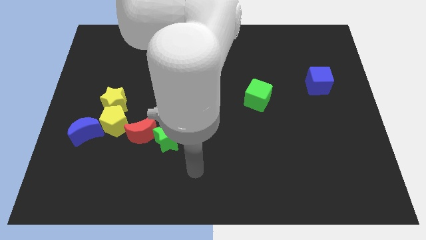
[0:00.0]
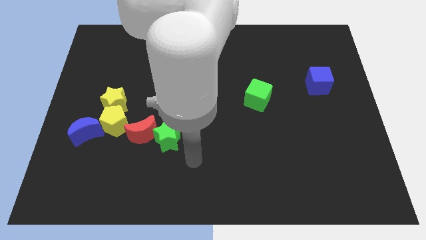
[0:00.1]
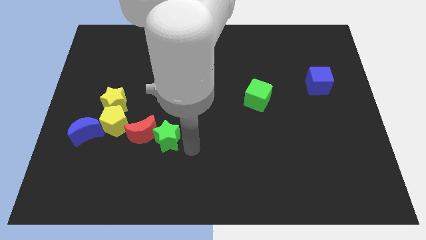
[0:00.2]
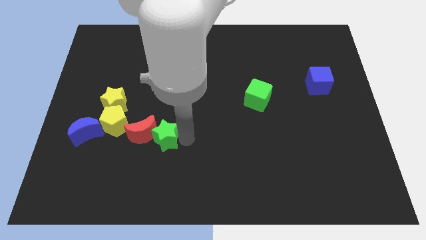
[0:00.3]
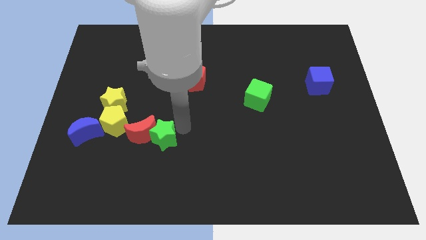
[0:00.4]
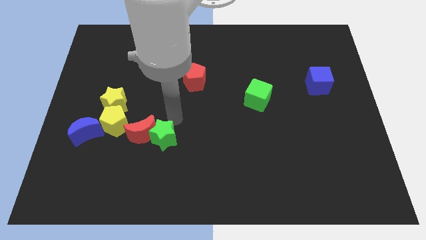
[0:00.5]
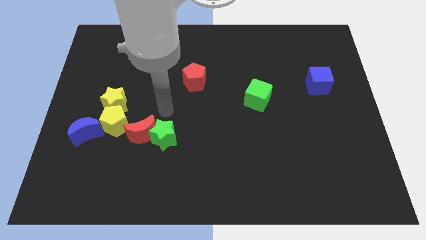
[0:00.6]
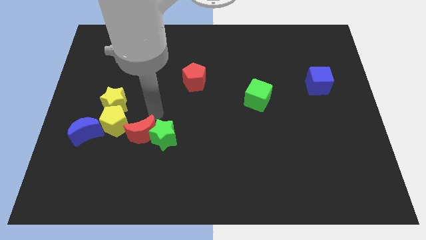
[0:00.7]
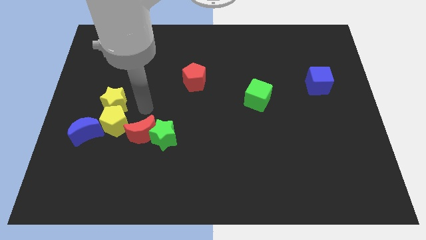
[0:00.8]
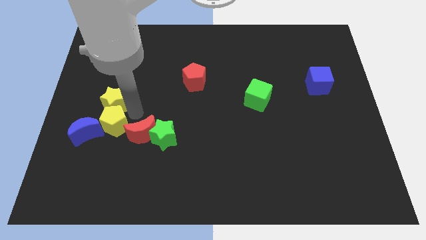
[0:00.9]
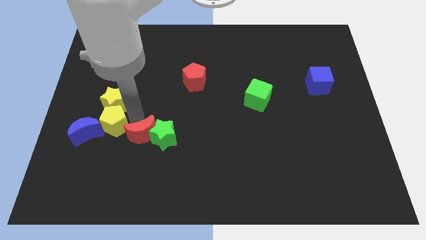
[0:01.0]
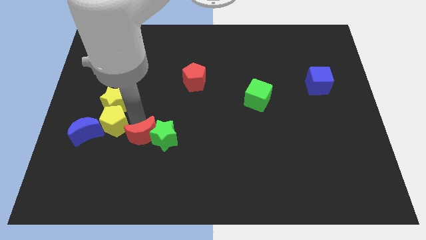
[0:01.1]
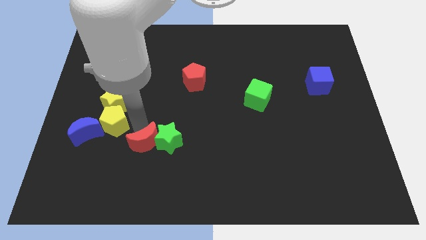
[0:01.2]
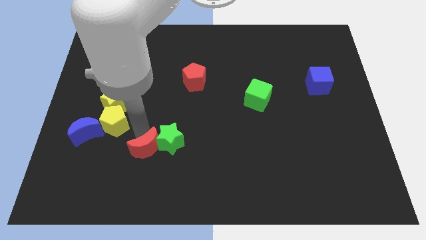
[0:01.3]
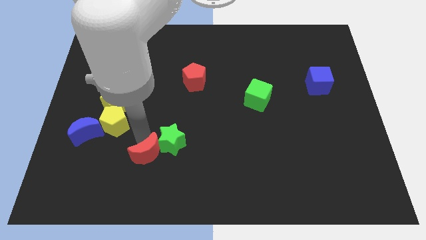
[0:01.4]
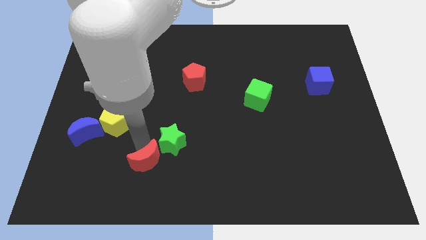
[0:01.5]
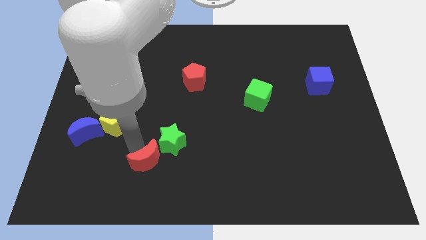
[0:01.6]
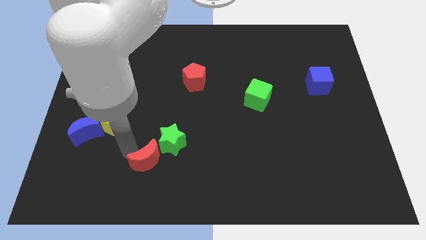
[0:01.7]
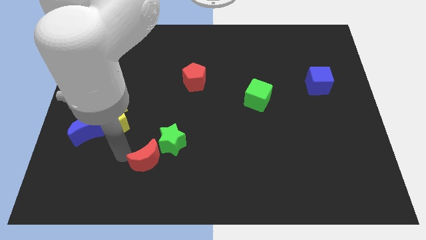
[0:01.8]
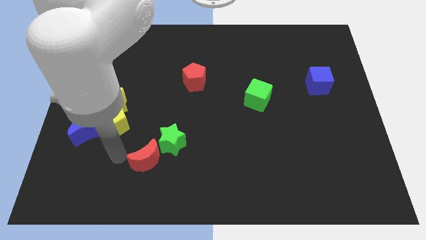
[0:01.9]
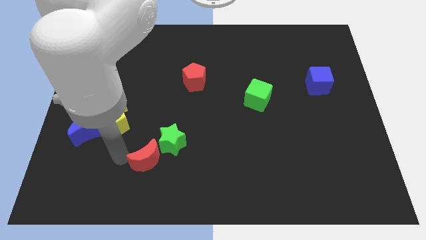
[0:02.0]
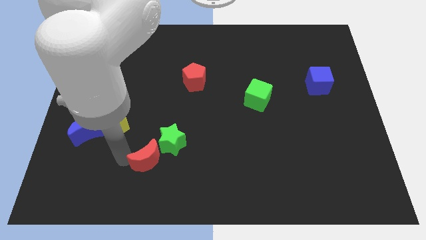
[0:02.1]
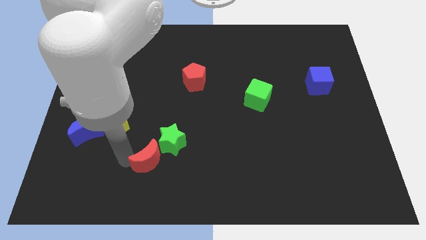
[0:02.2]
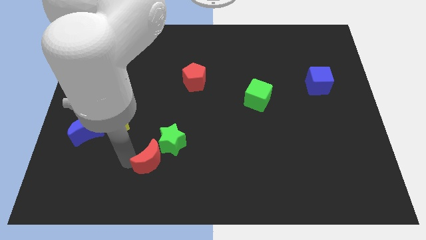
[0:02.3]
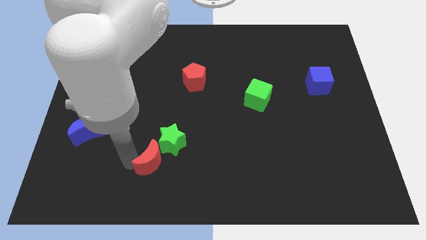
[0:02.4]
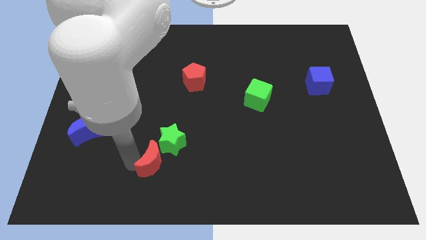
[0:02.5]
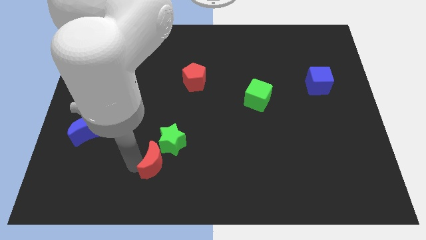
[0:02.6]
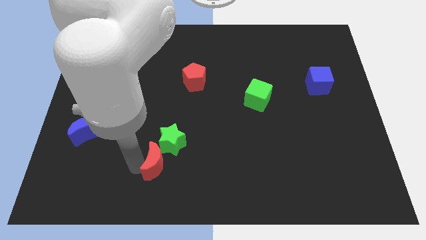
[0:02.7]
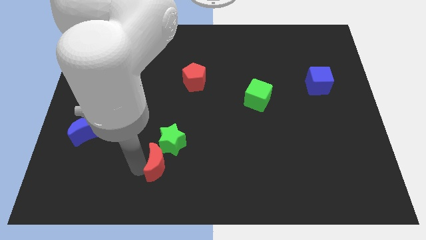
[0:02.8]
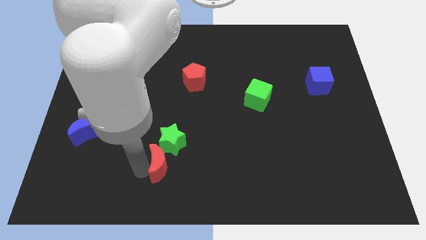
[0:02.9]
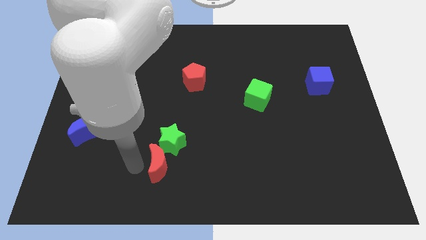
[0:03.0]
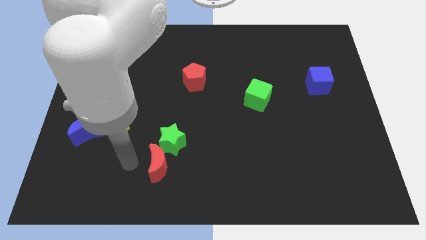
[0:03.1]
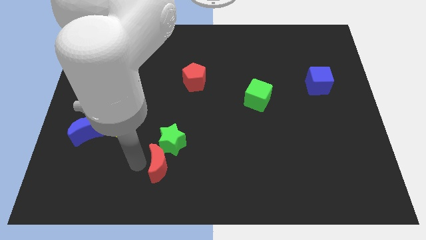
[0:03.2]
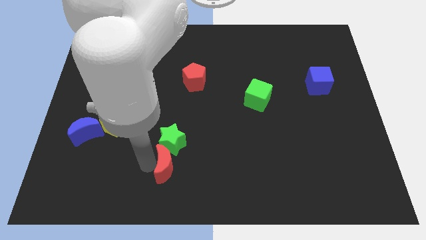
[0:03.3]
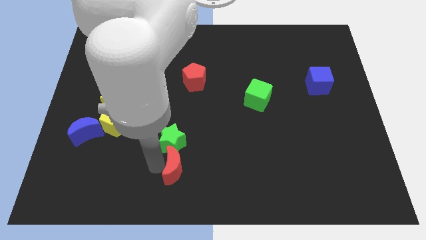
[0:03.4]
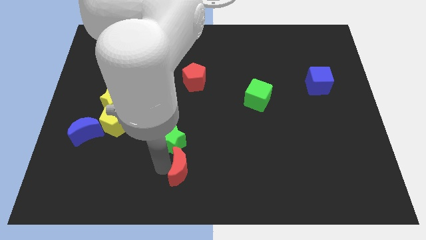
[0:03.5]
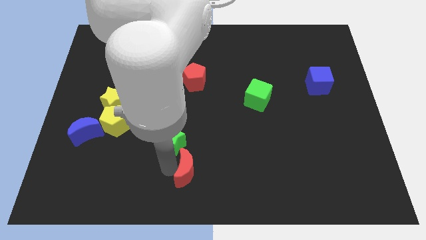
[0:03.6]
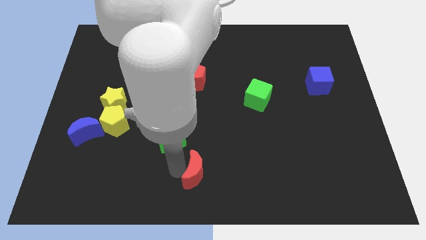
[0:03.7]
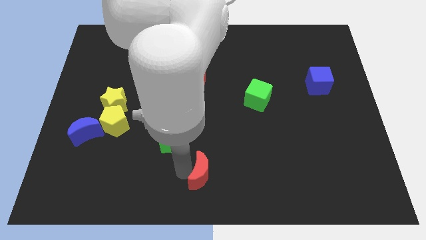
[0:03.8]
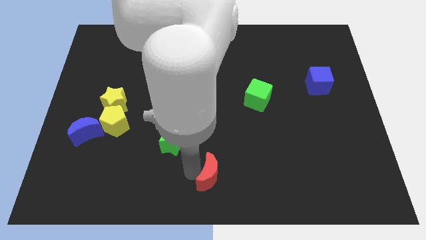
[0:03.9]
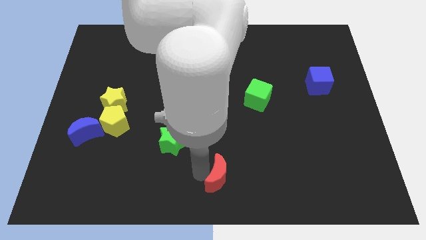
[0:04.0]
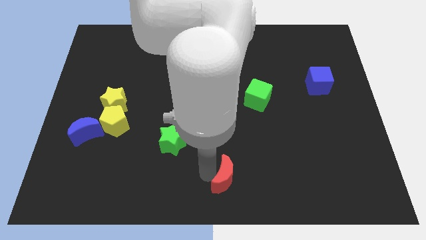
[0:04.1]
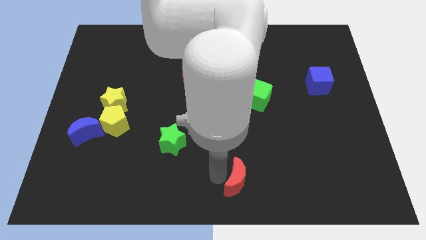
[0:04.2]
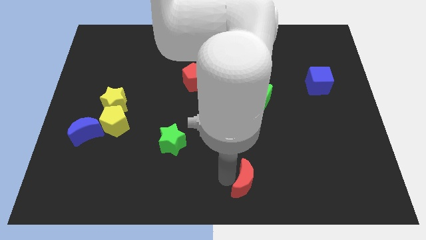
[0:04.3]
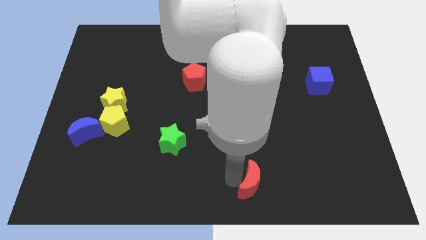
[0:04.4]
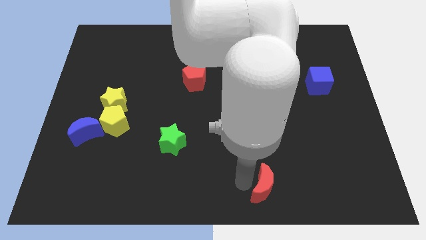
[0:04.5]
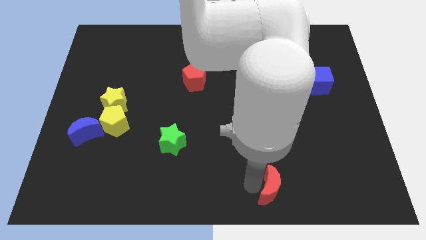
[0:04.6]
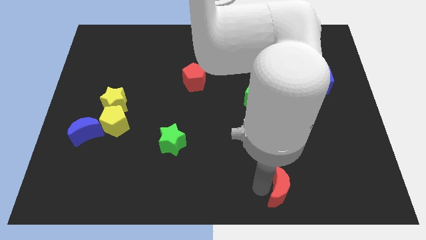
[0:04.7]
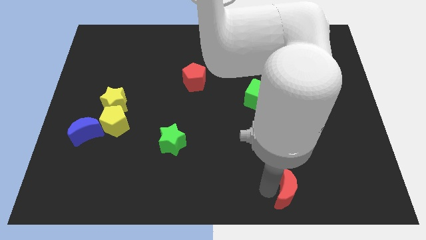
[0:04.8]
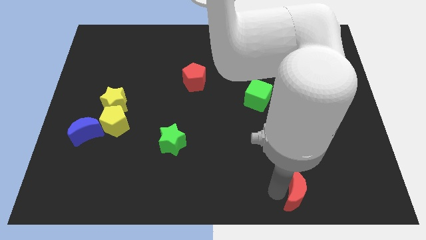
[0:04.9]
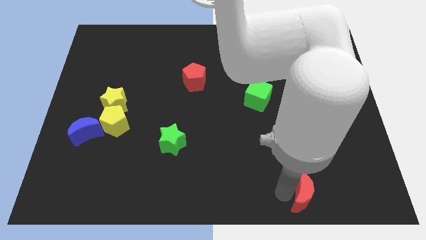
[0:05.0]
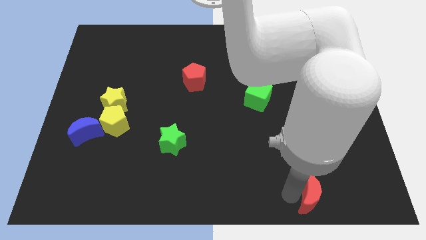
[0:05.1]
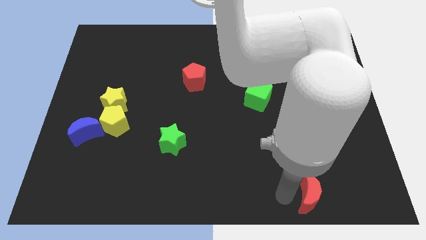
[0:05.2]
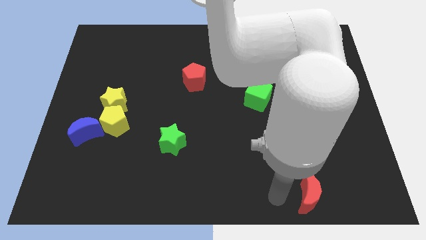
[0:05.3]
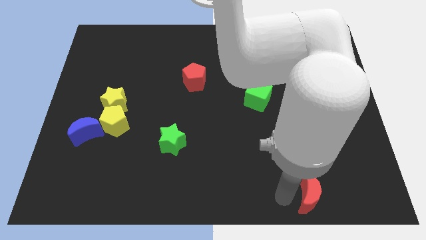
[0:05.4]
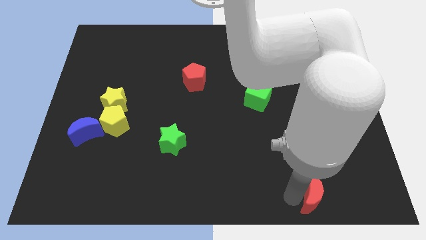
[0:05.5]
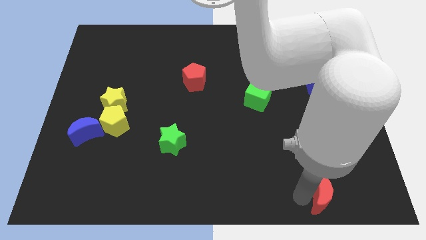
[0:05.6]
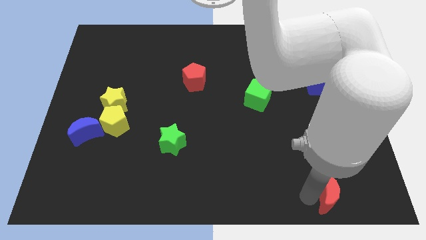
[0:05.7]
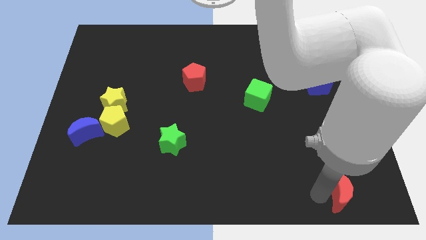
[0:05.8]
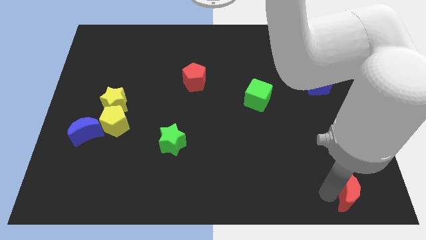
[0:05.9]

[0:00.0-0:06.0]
push the red moon to the bottom right of the board
